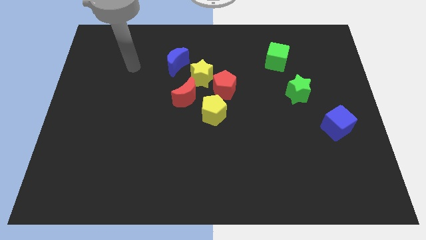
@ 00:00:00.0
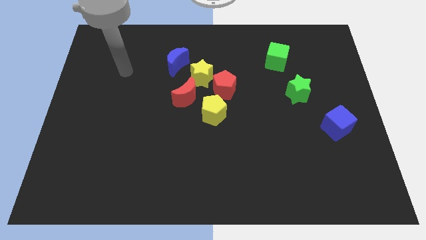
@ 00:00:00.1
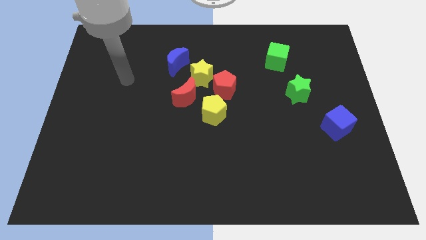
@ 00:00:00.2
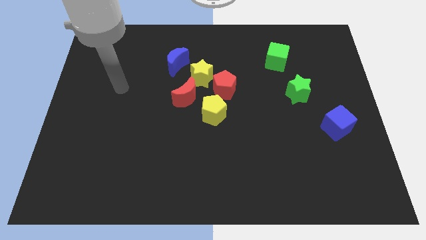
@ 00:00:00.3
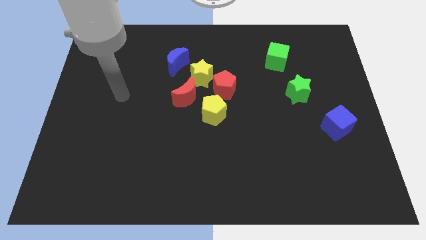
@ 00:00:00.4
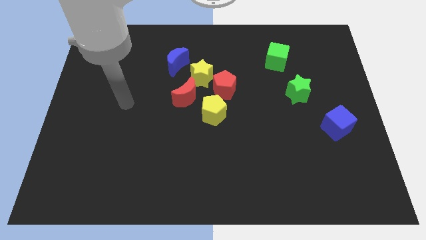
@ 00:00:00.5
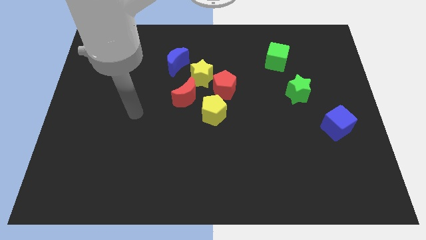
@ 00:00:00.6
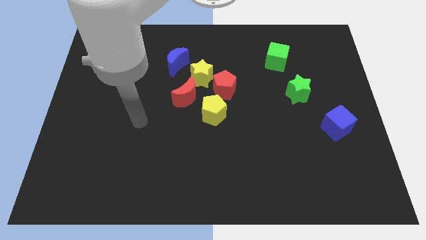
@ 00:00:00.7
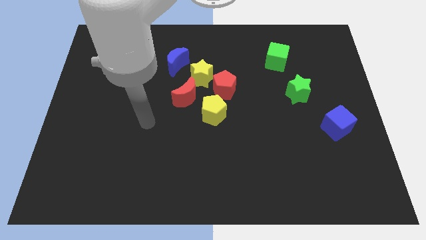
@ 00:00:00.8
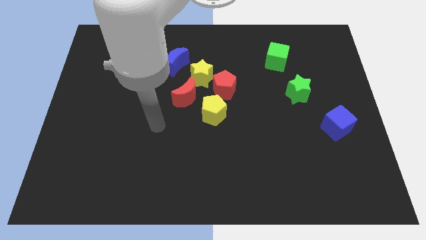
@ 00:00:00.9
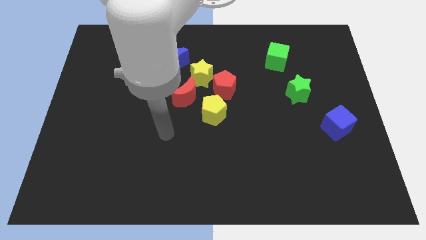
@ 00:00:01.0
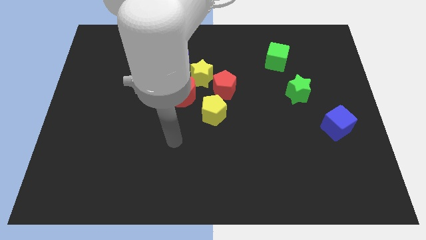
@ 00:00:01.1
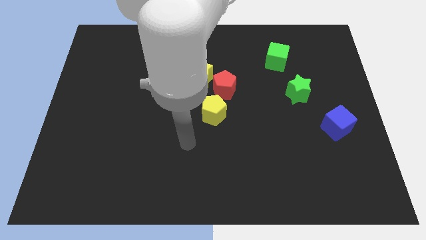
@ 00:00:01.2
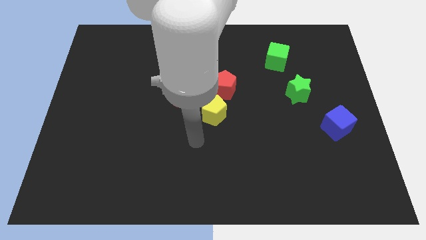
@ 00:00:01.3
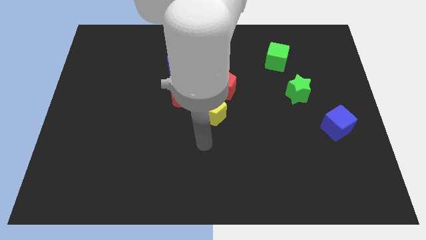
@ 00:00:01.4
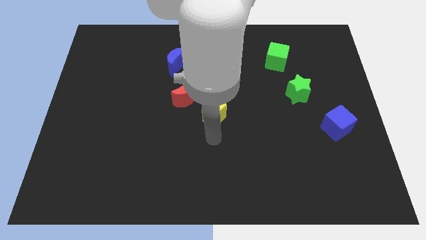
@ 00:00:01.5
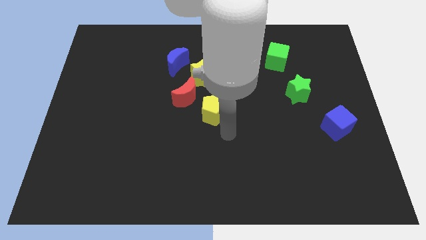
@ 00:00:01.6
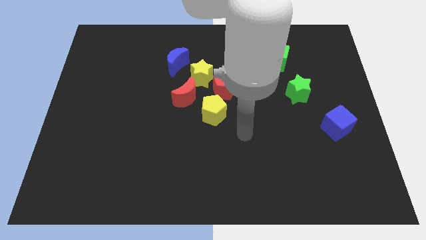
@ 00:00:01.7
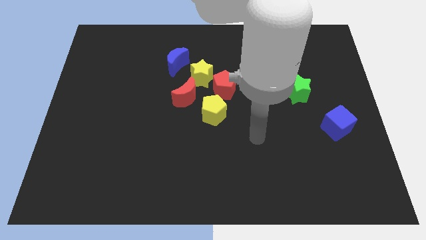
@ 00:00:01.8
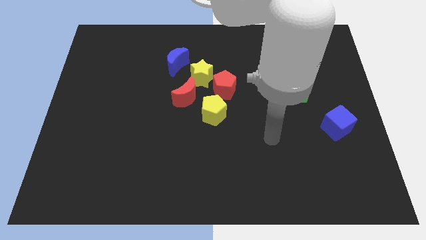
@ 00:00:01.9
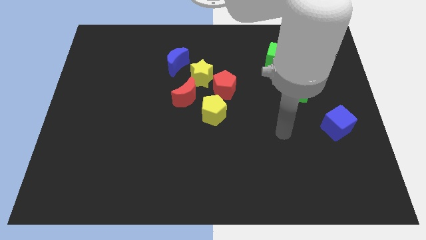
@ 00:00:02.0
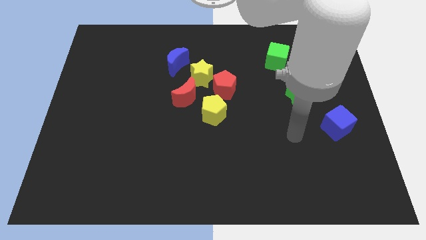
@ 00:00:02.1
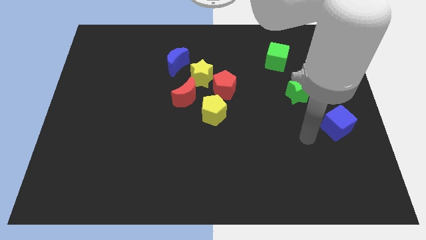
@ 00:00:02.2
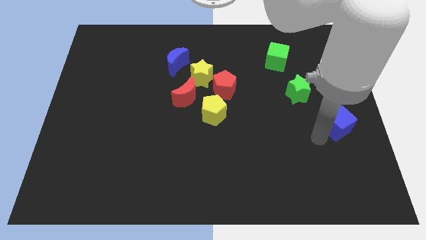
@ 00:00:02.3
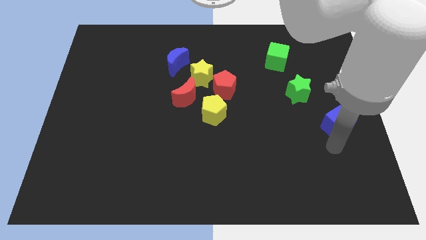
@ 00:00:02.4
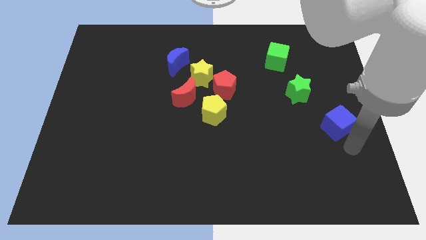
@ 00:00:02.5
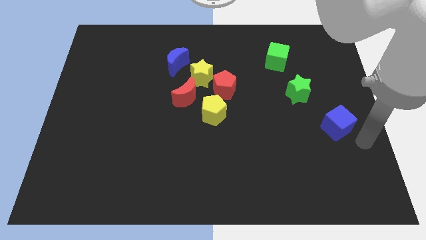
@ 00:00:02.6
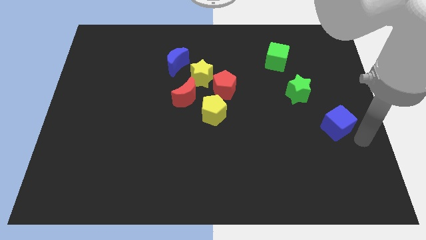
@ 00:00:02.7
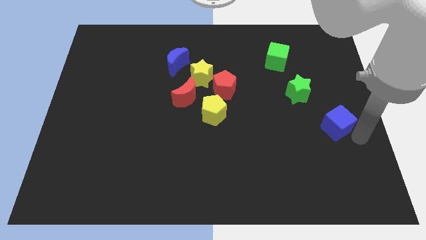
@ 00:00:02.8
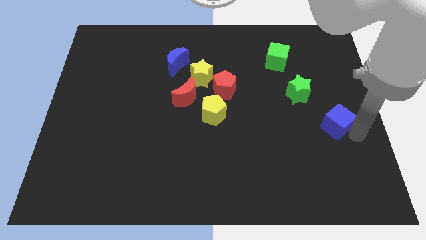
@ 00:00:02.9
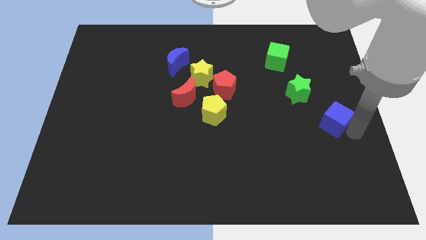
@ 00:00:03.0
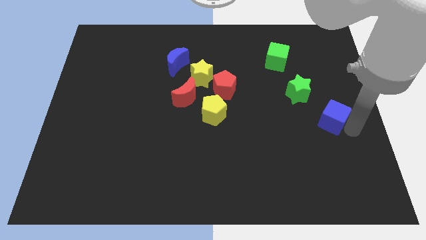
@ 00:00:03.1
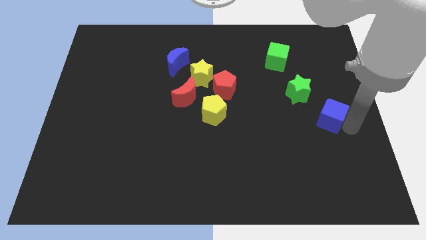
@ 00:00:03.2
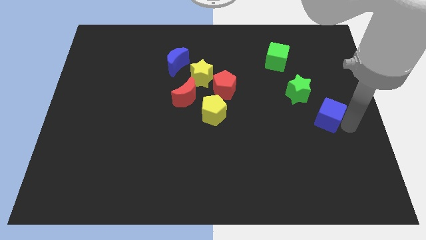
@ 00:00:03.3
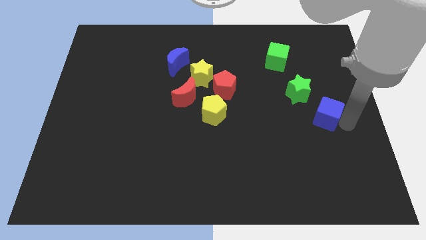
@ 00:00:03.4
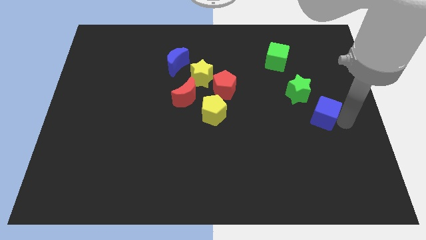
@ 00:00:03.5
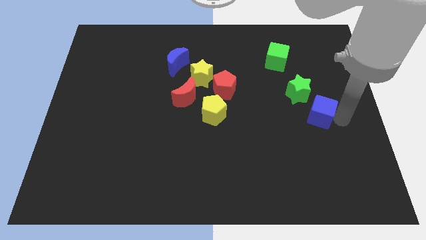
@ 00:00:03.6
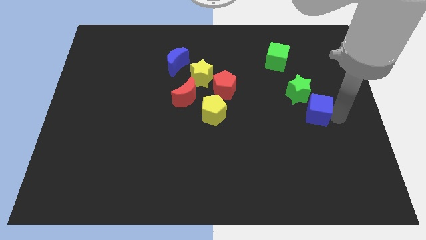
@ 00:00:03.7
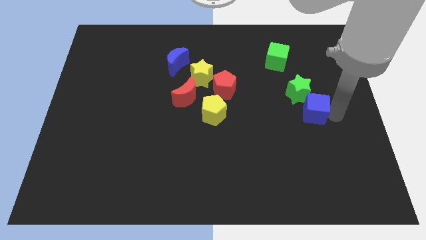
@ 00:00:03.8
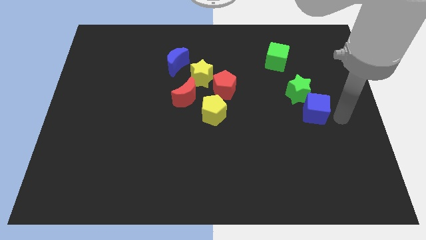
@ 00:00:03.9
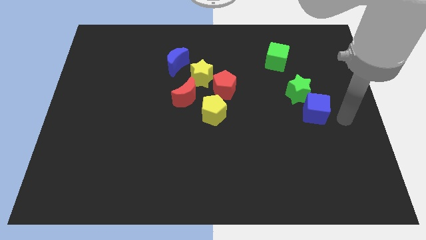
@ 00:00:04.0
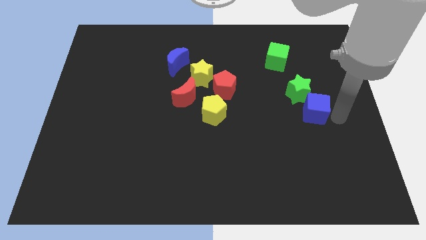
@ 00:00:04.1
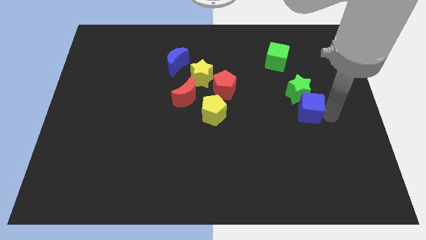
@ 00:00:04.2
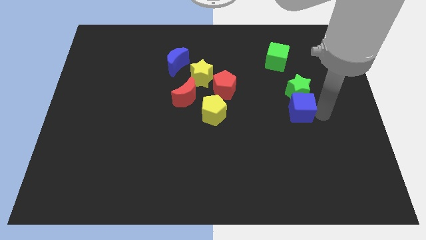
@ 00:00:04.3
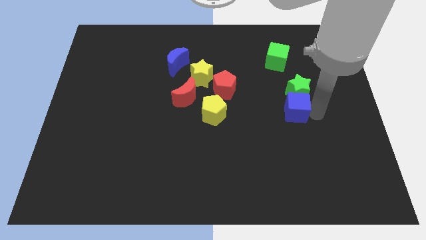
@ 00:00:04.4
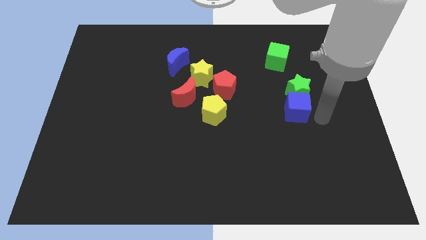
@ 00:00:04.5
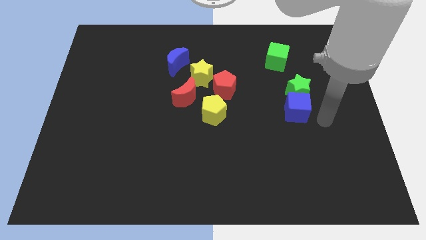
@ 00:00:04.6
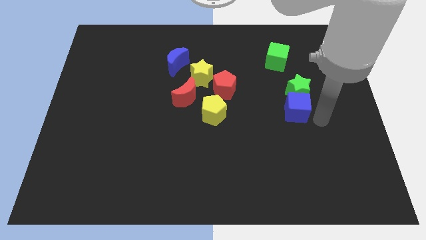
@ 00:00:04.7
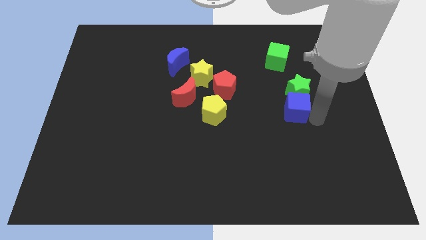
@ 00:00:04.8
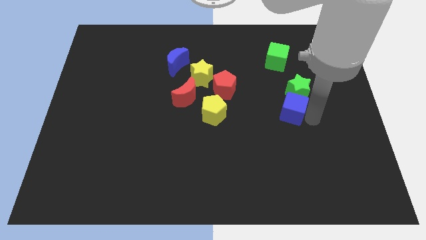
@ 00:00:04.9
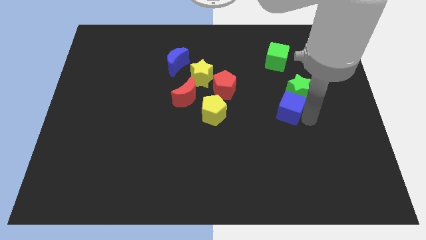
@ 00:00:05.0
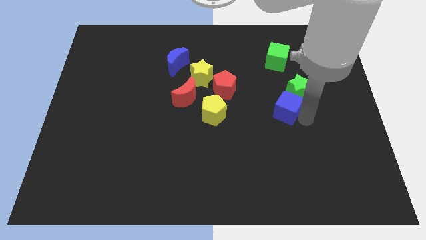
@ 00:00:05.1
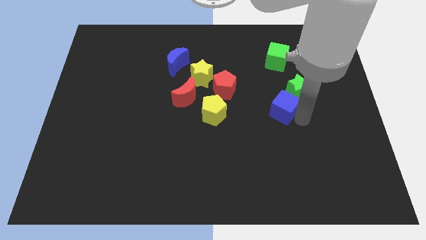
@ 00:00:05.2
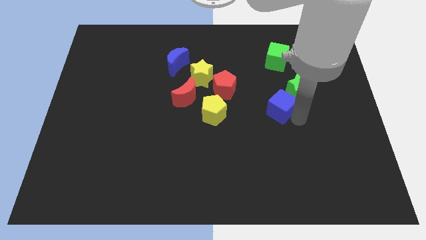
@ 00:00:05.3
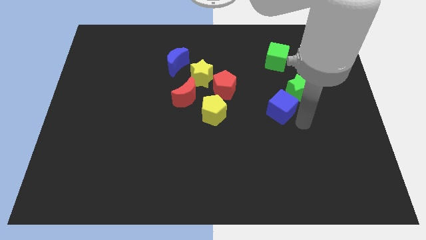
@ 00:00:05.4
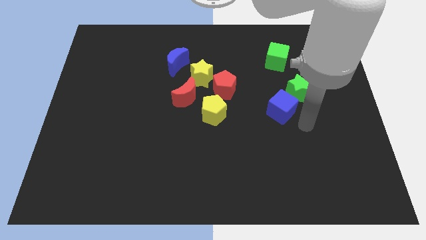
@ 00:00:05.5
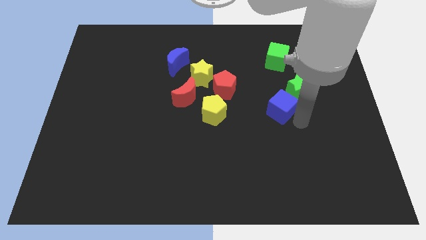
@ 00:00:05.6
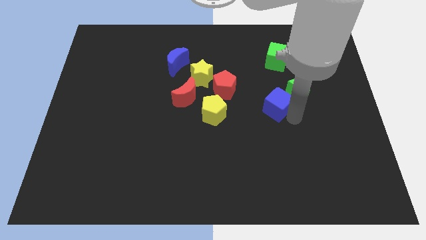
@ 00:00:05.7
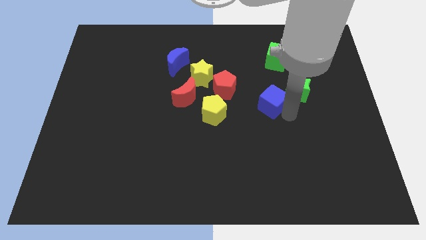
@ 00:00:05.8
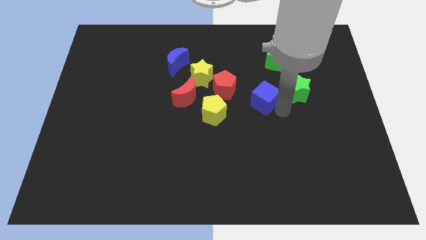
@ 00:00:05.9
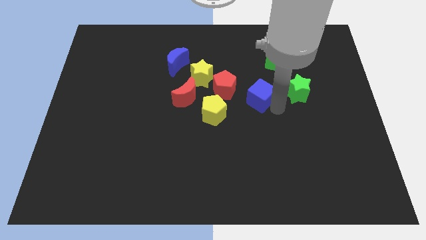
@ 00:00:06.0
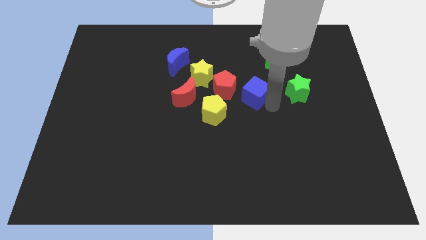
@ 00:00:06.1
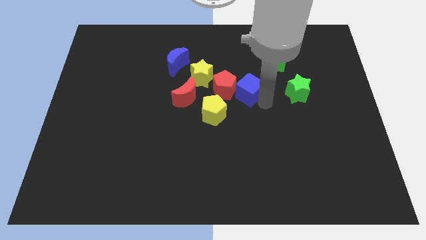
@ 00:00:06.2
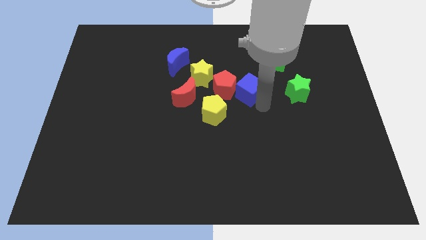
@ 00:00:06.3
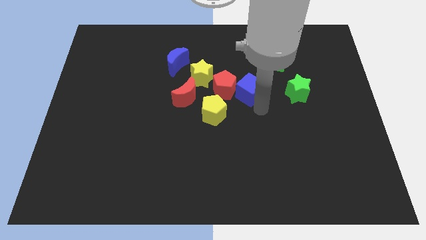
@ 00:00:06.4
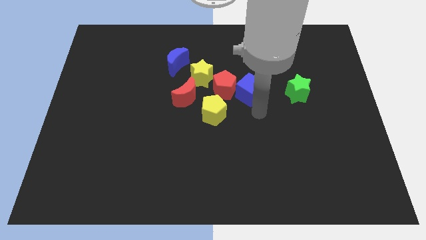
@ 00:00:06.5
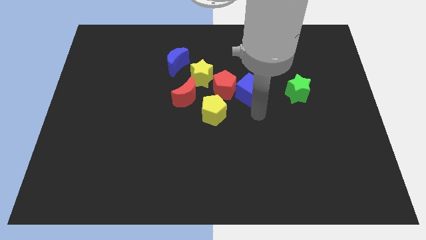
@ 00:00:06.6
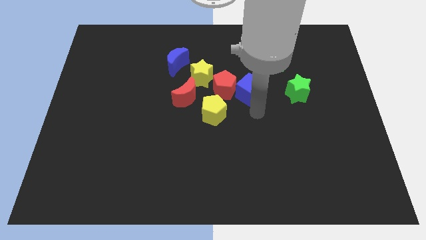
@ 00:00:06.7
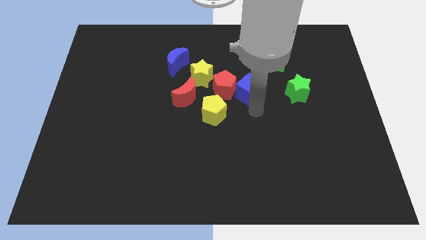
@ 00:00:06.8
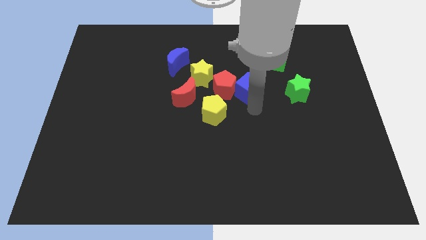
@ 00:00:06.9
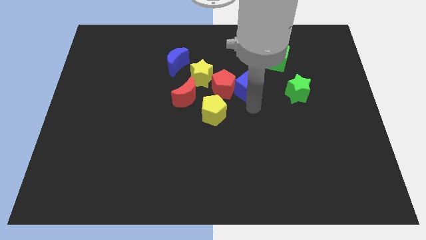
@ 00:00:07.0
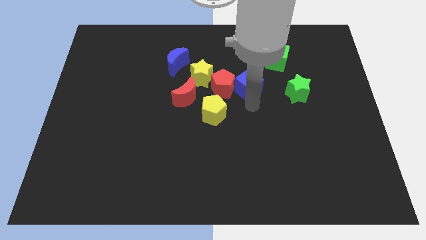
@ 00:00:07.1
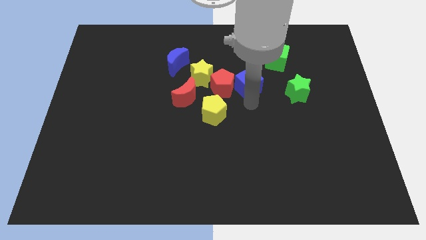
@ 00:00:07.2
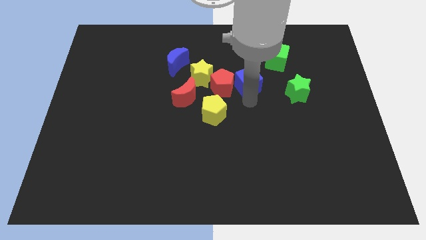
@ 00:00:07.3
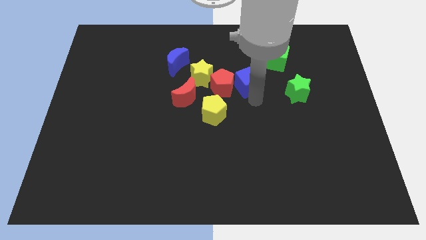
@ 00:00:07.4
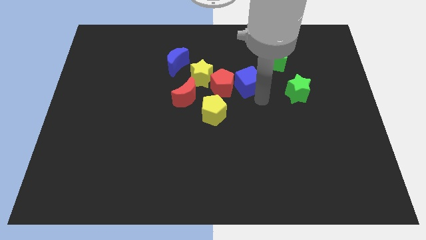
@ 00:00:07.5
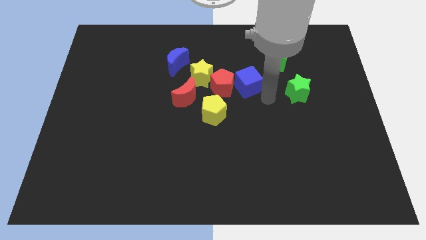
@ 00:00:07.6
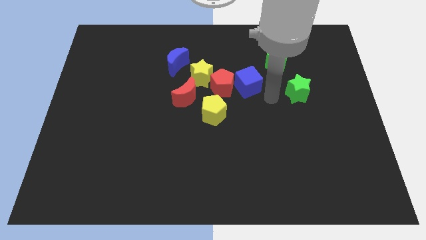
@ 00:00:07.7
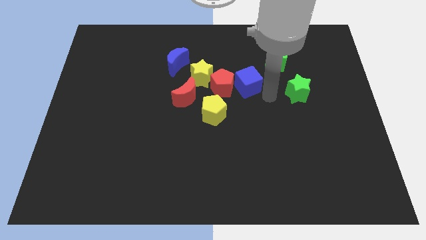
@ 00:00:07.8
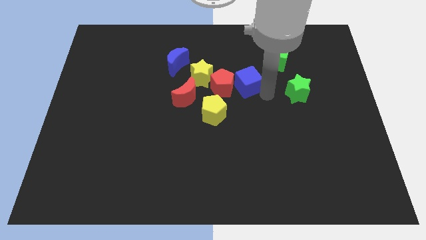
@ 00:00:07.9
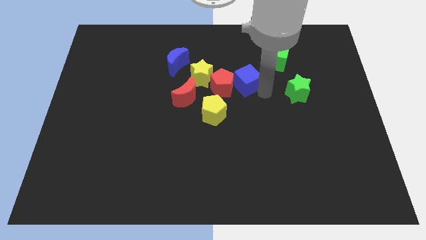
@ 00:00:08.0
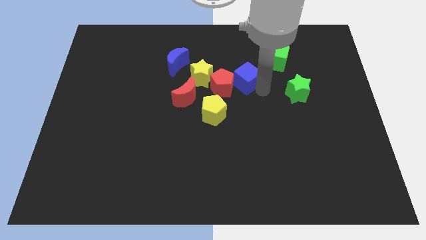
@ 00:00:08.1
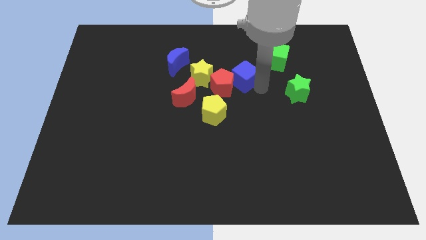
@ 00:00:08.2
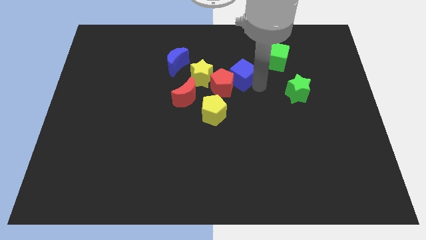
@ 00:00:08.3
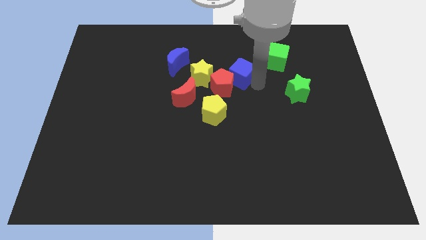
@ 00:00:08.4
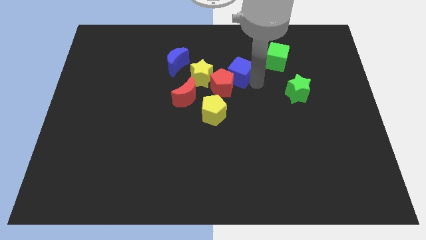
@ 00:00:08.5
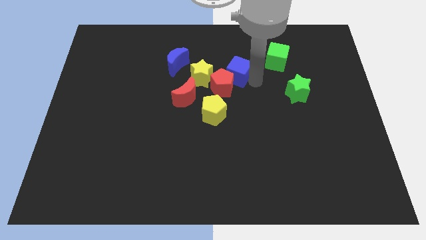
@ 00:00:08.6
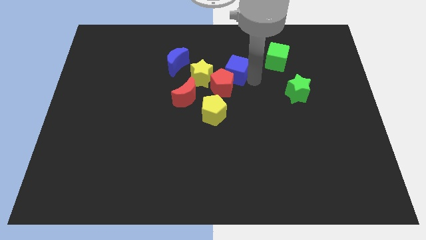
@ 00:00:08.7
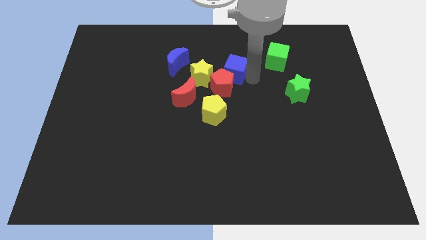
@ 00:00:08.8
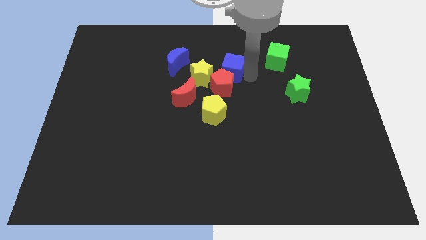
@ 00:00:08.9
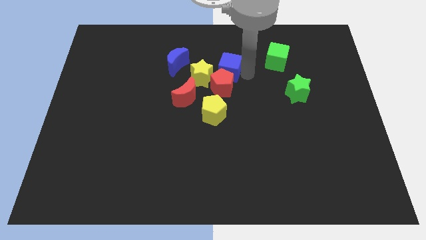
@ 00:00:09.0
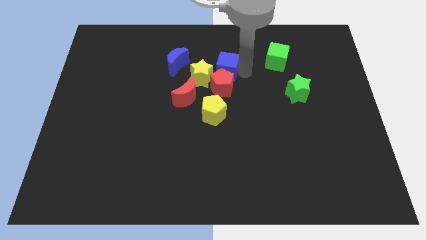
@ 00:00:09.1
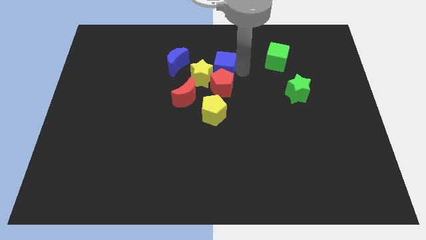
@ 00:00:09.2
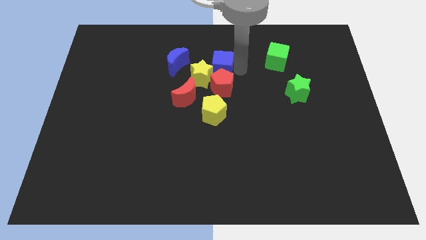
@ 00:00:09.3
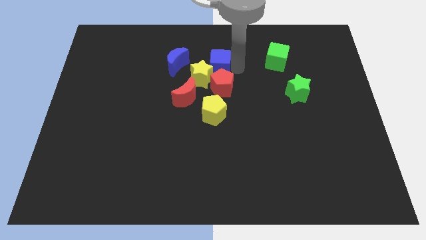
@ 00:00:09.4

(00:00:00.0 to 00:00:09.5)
slide the blue cube close to the yellow star
